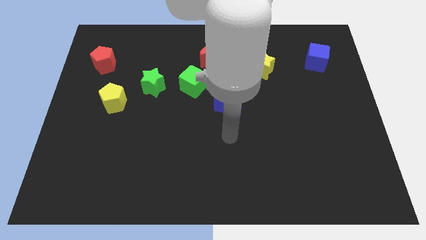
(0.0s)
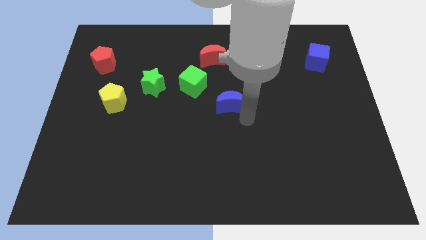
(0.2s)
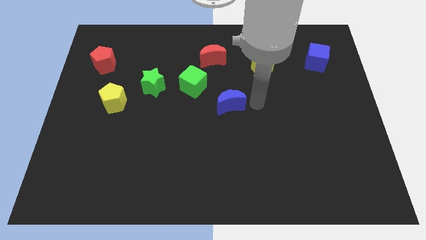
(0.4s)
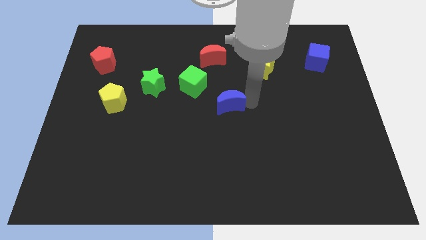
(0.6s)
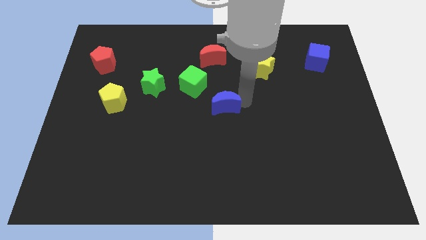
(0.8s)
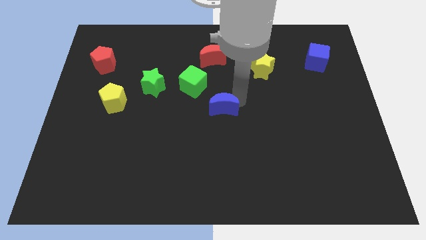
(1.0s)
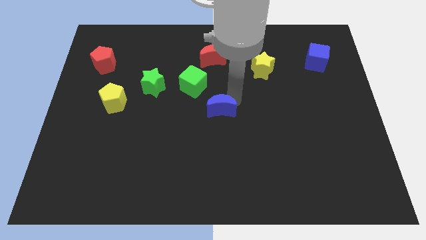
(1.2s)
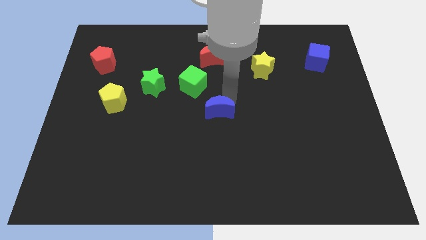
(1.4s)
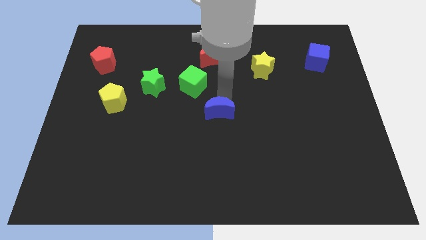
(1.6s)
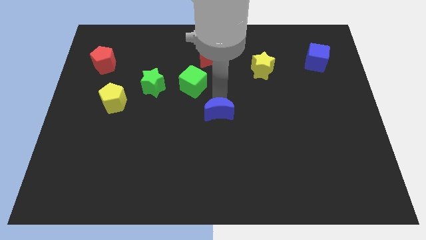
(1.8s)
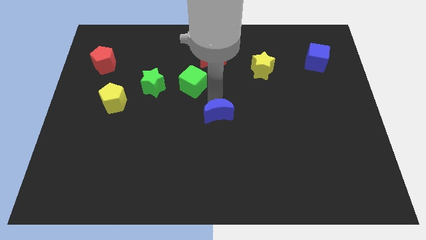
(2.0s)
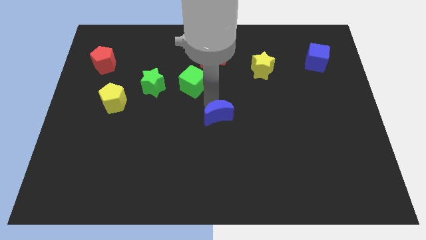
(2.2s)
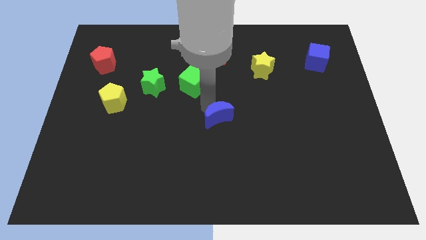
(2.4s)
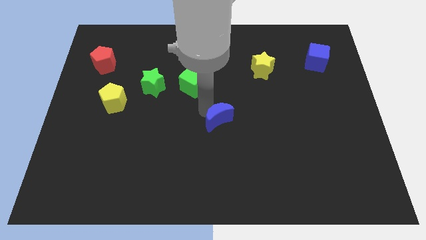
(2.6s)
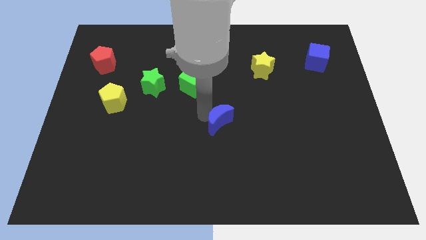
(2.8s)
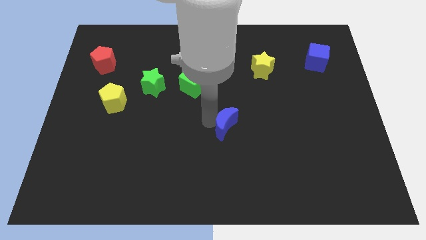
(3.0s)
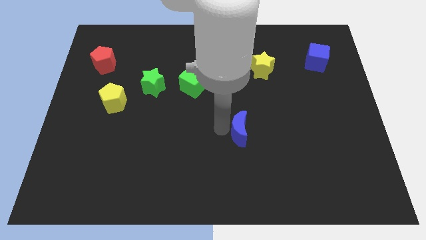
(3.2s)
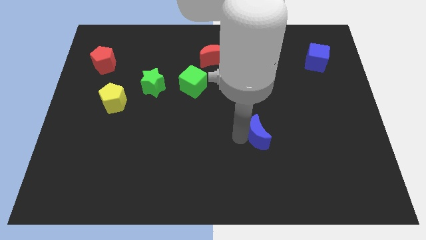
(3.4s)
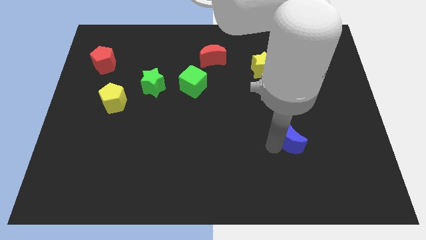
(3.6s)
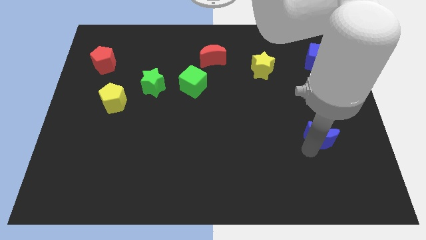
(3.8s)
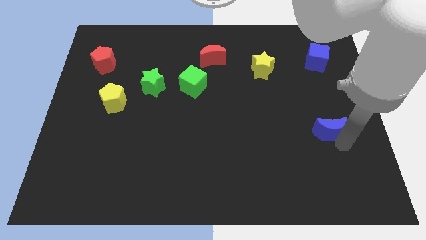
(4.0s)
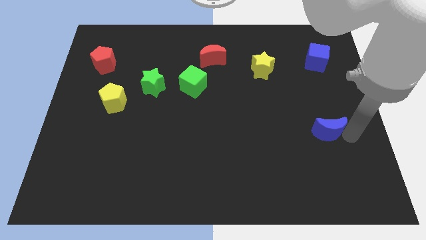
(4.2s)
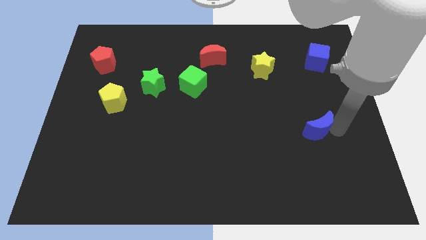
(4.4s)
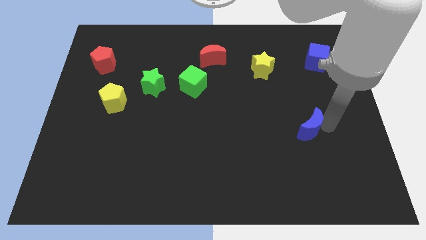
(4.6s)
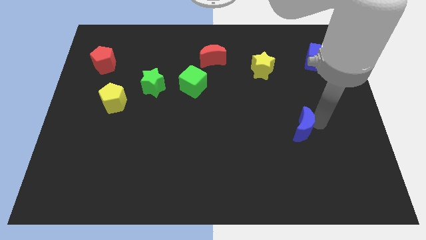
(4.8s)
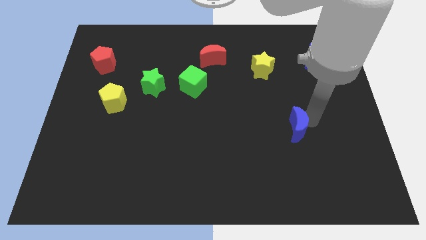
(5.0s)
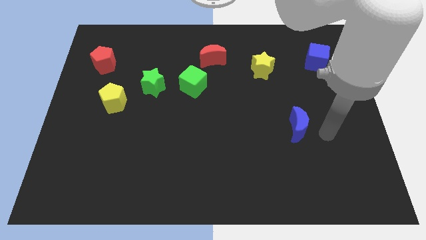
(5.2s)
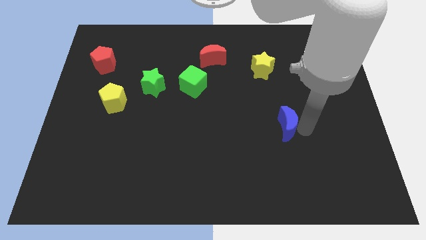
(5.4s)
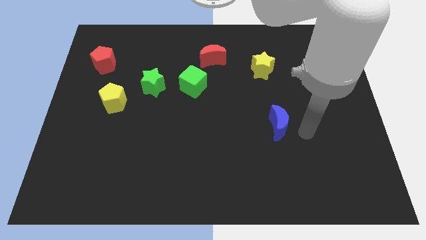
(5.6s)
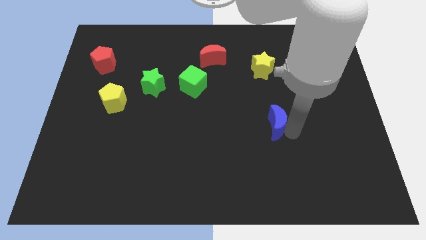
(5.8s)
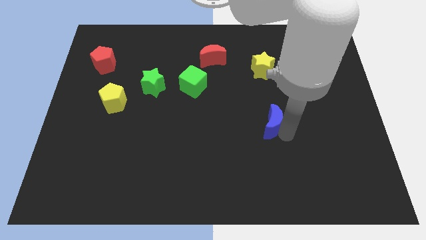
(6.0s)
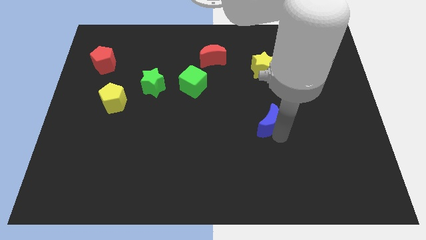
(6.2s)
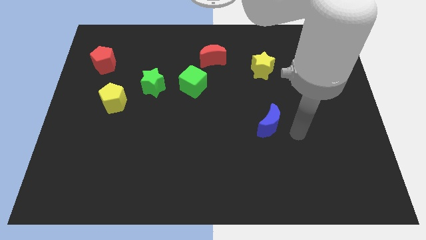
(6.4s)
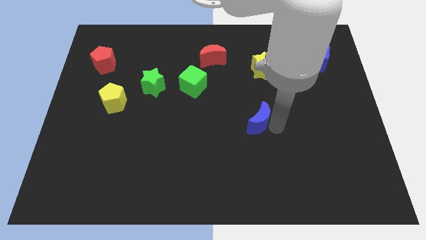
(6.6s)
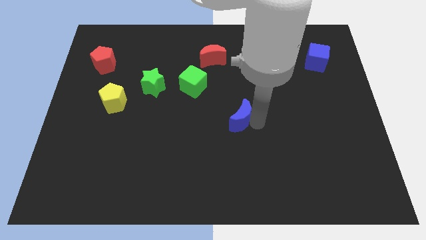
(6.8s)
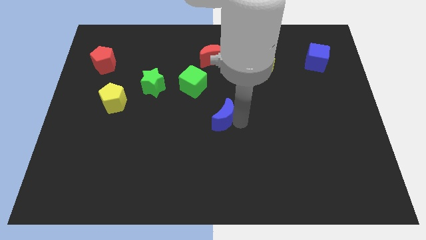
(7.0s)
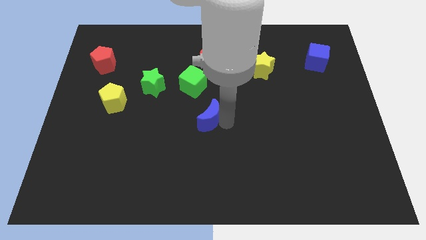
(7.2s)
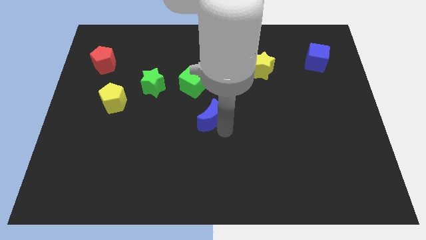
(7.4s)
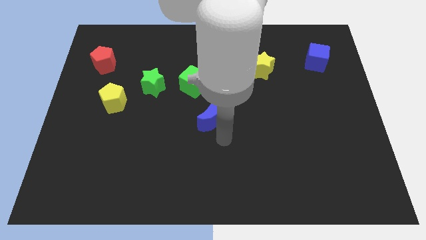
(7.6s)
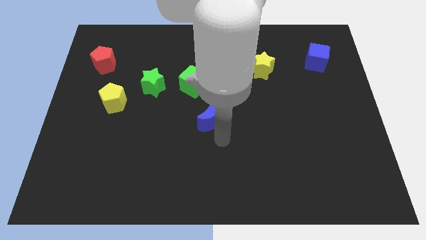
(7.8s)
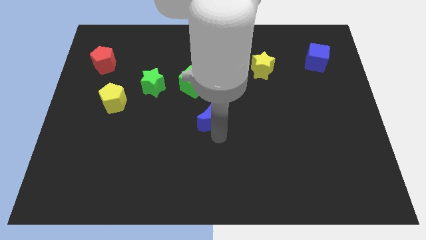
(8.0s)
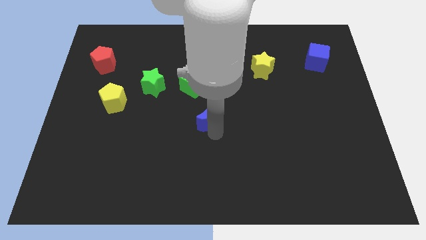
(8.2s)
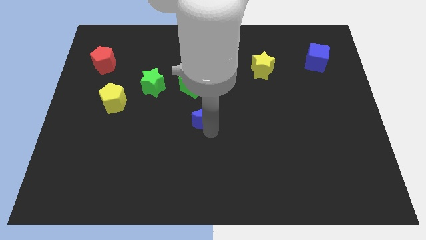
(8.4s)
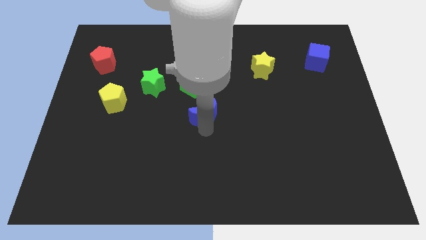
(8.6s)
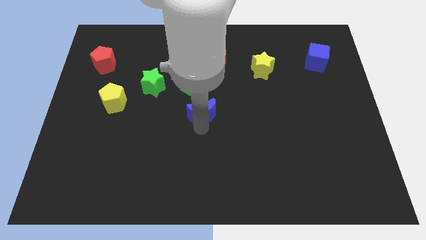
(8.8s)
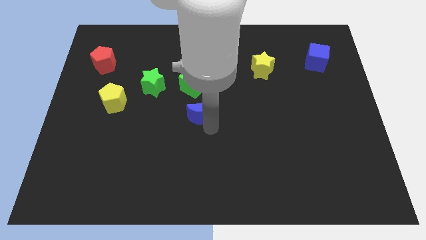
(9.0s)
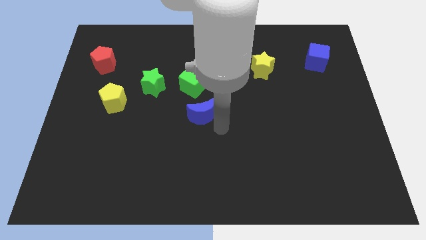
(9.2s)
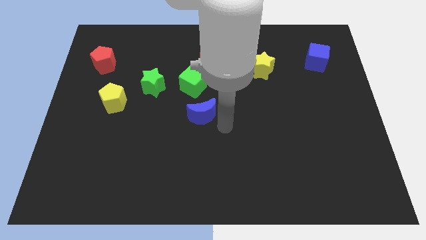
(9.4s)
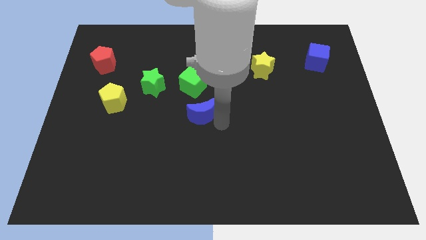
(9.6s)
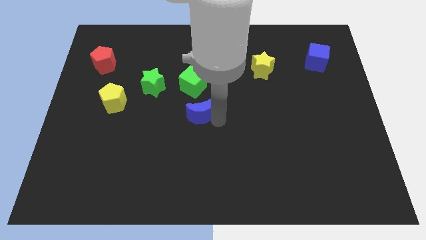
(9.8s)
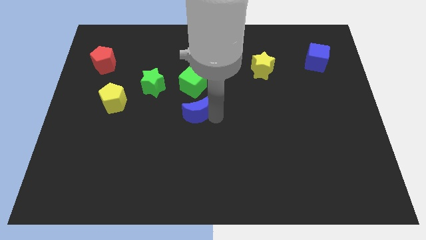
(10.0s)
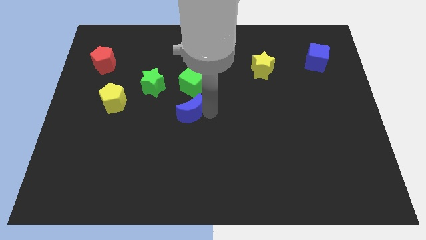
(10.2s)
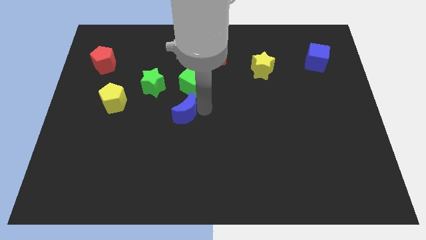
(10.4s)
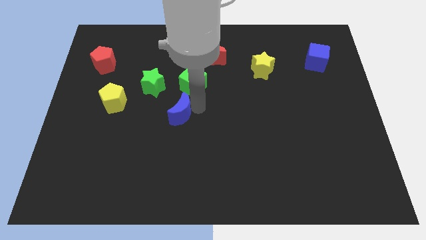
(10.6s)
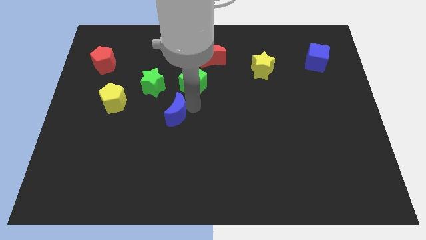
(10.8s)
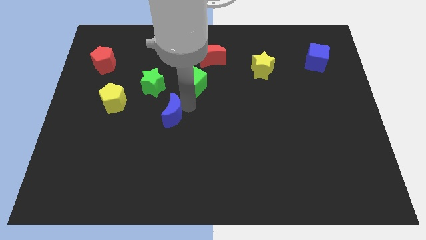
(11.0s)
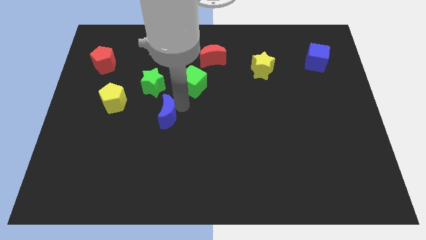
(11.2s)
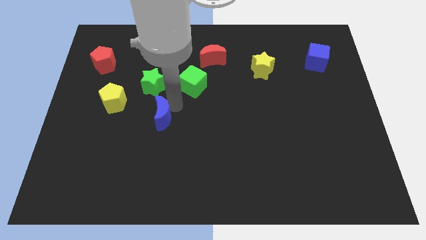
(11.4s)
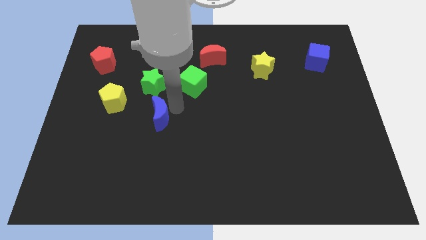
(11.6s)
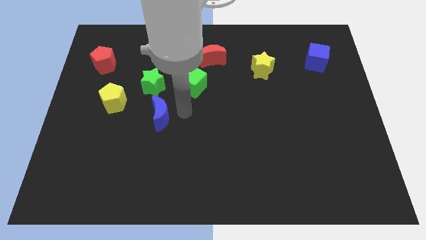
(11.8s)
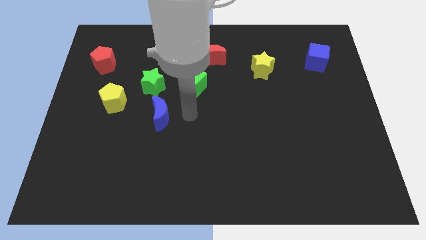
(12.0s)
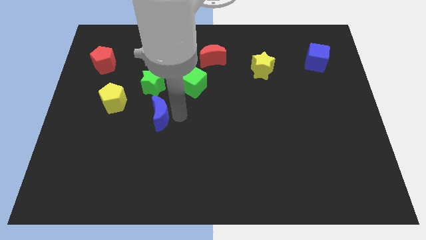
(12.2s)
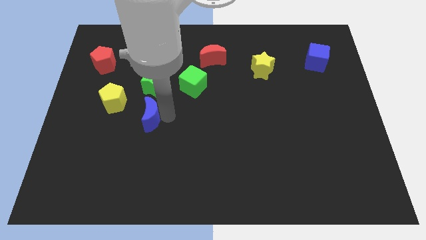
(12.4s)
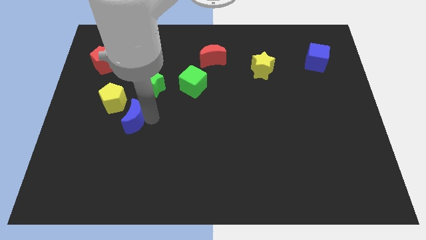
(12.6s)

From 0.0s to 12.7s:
move the blue moon to the left

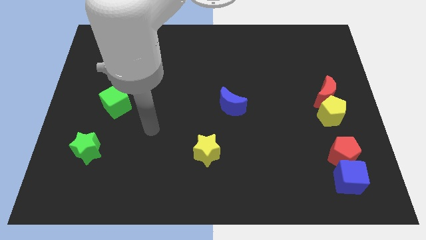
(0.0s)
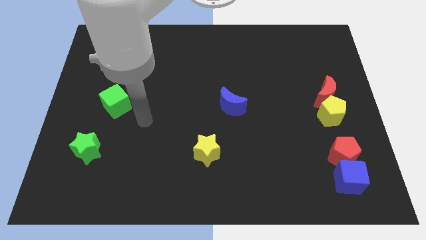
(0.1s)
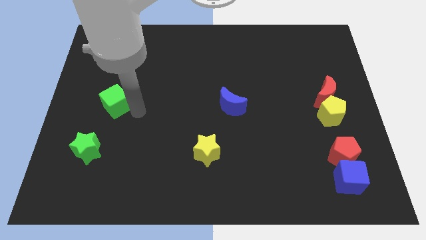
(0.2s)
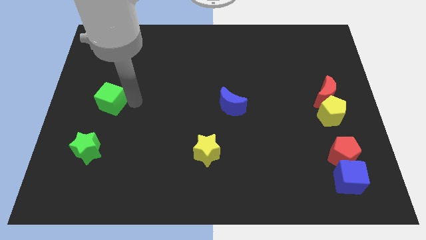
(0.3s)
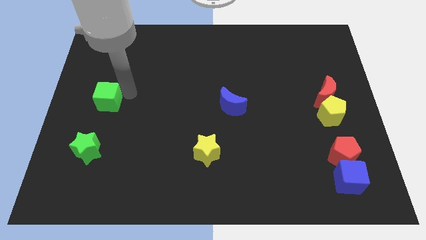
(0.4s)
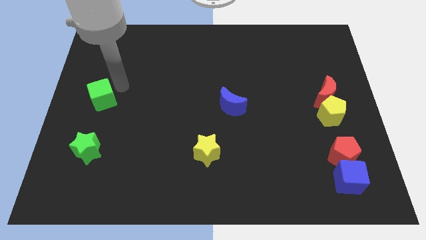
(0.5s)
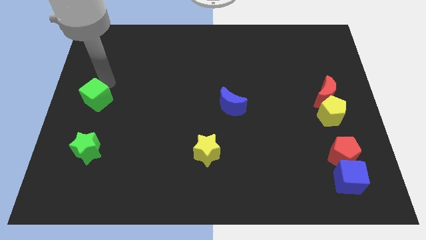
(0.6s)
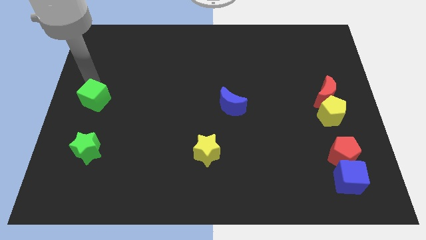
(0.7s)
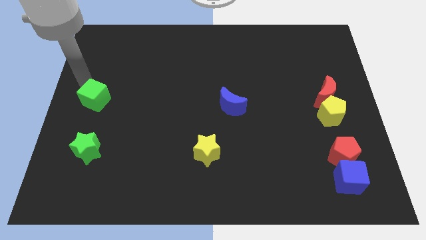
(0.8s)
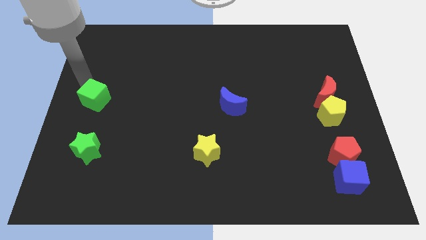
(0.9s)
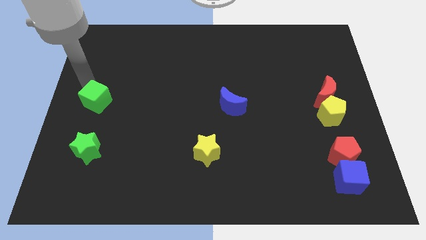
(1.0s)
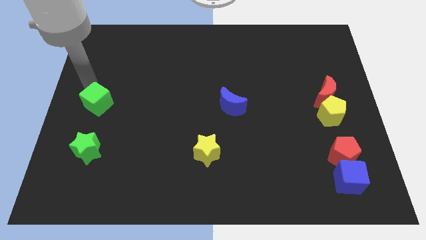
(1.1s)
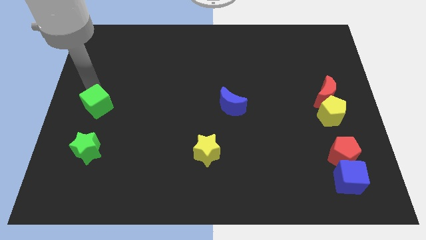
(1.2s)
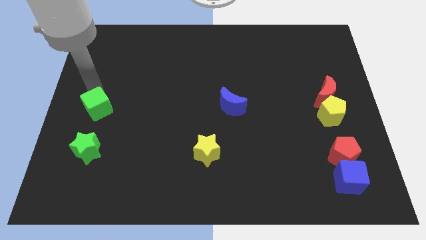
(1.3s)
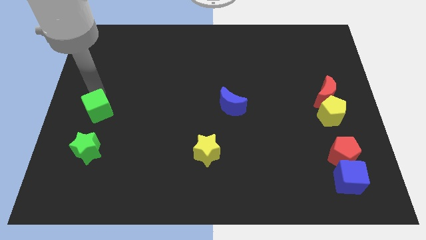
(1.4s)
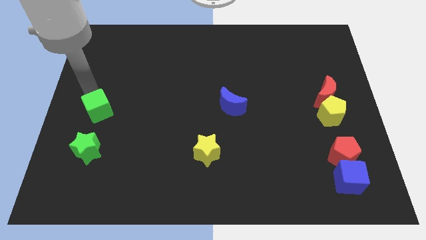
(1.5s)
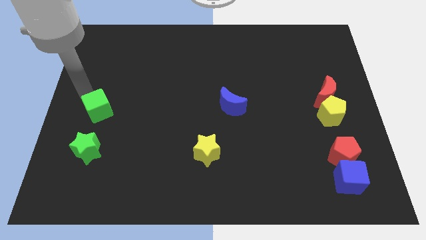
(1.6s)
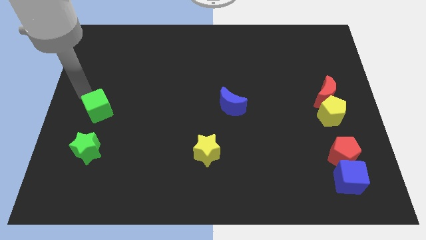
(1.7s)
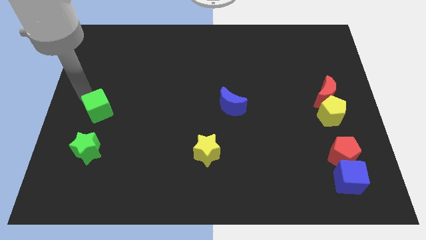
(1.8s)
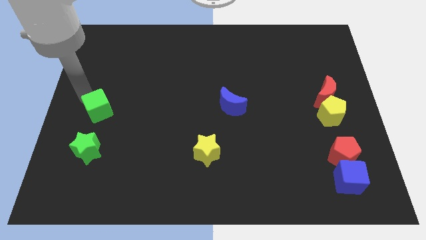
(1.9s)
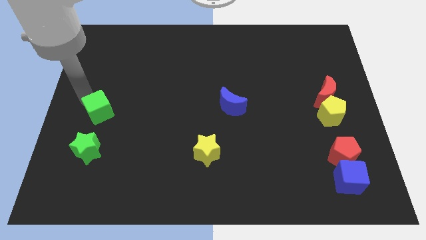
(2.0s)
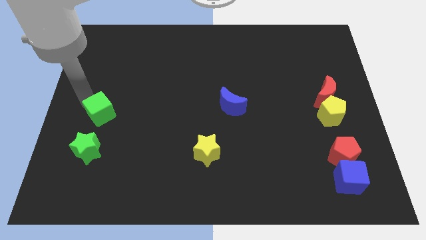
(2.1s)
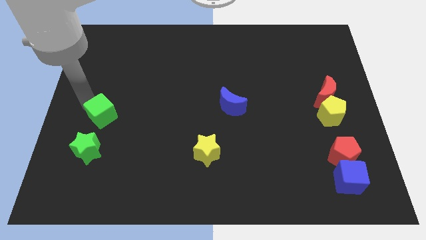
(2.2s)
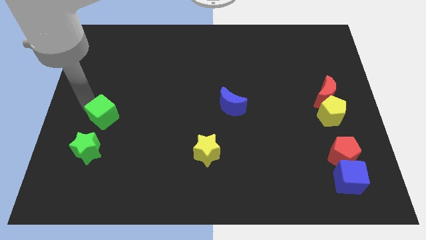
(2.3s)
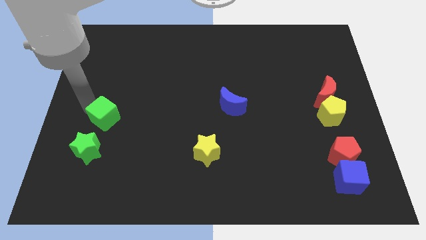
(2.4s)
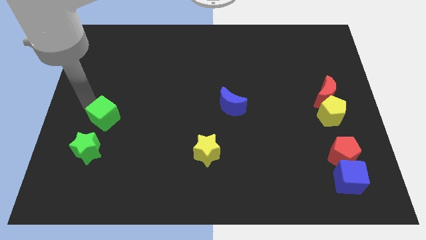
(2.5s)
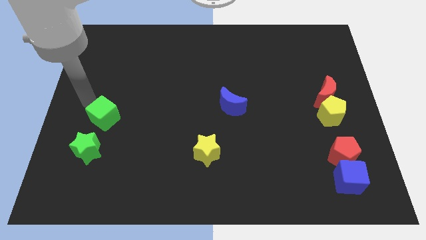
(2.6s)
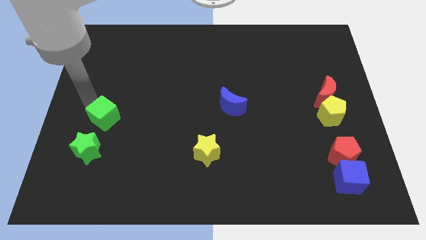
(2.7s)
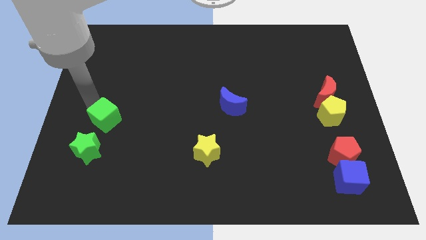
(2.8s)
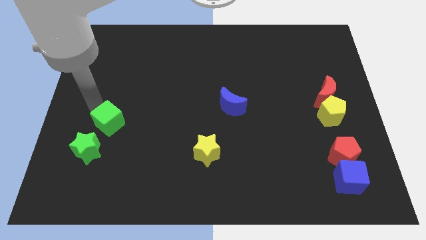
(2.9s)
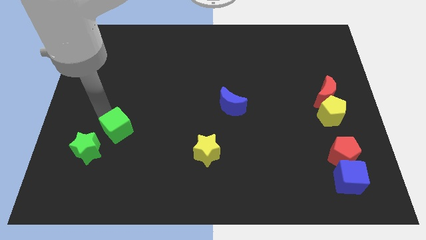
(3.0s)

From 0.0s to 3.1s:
slightly slide the green cube down
